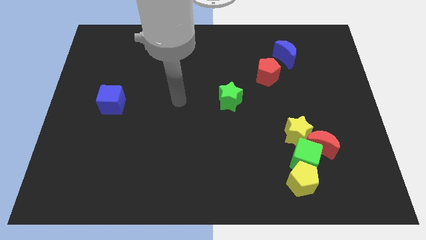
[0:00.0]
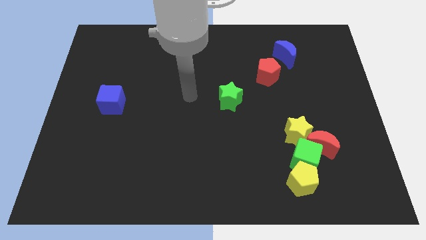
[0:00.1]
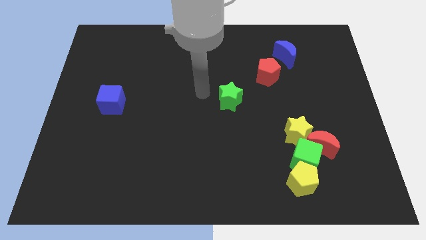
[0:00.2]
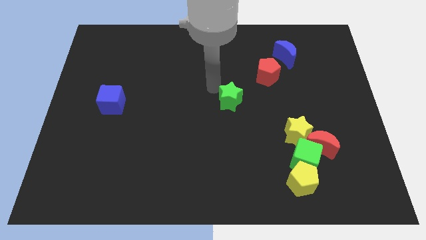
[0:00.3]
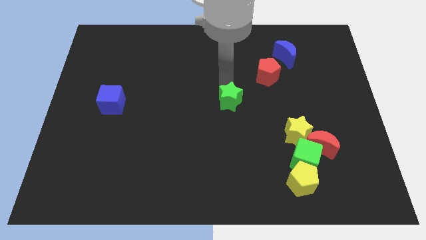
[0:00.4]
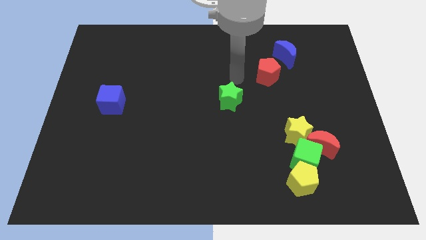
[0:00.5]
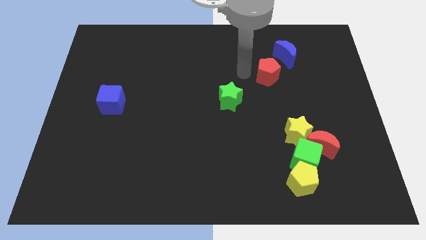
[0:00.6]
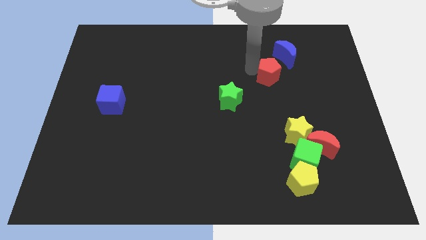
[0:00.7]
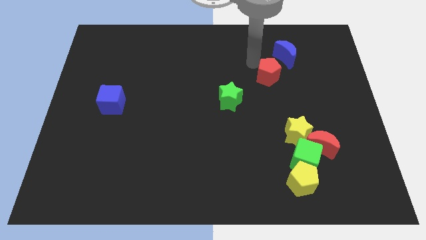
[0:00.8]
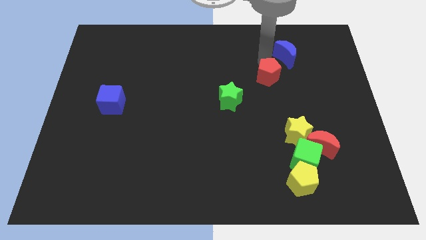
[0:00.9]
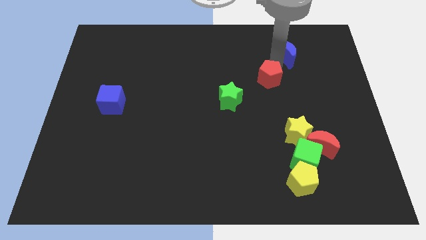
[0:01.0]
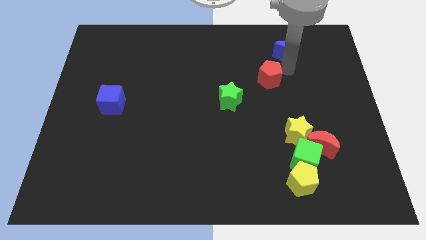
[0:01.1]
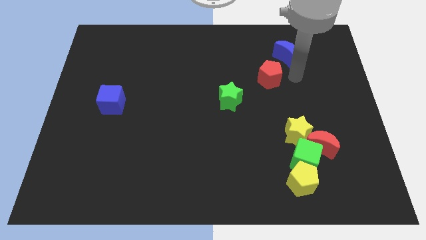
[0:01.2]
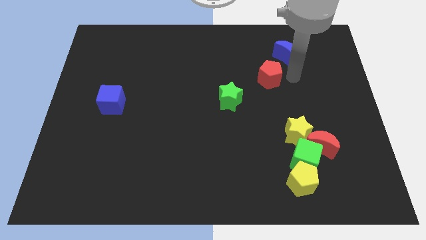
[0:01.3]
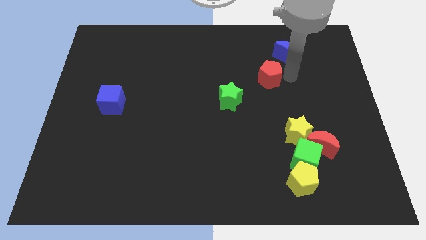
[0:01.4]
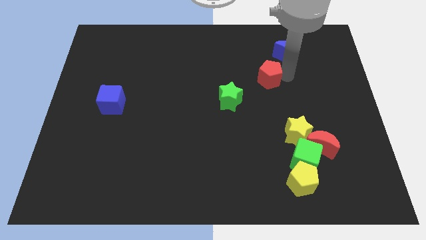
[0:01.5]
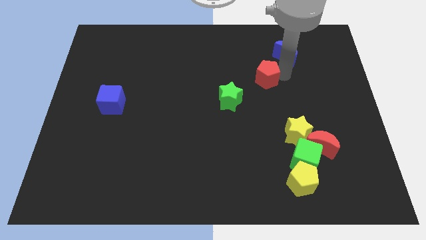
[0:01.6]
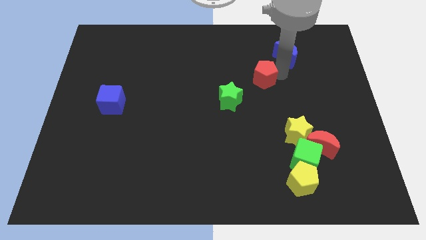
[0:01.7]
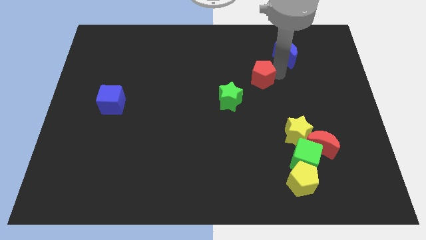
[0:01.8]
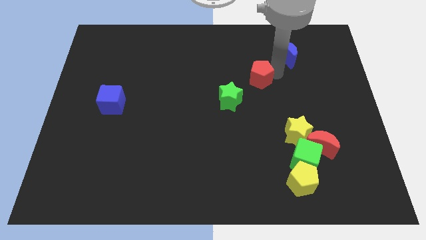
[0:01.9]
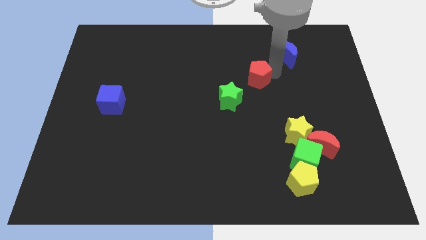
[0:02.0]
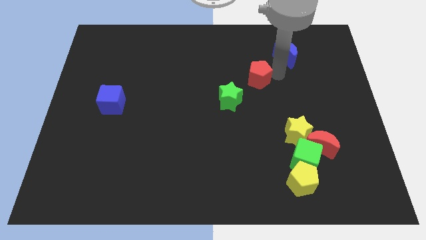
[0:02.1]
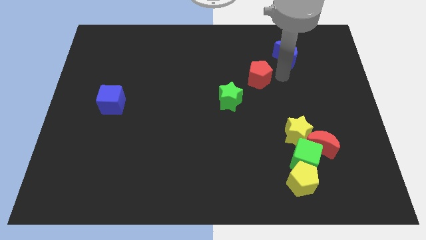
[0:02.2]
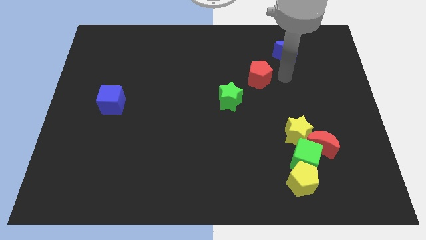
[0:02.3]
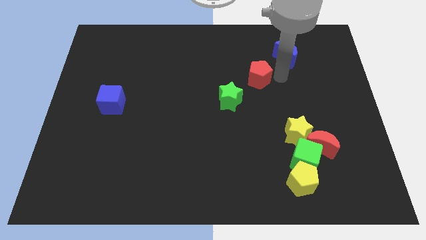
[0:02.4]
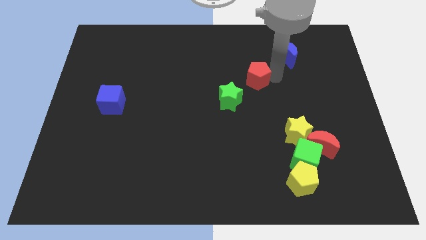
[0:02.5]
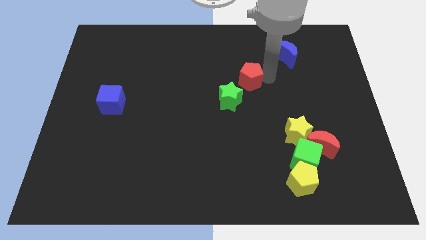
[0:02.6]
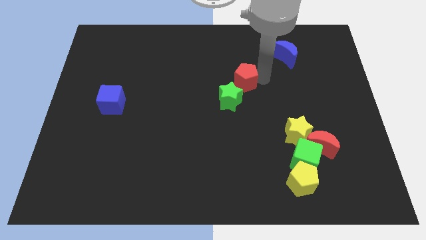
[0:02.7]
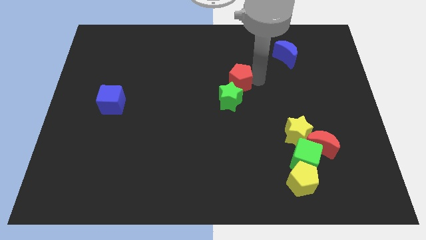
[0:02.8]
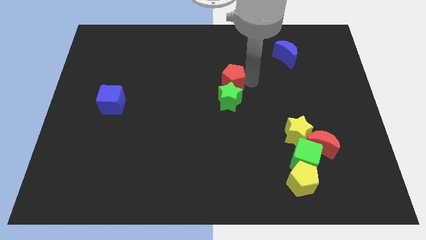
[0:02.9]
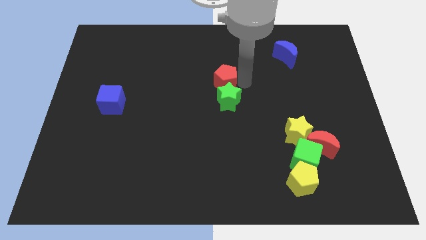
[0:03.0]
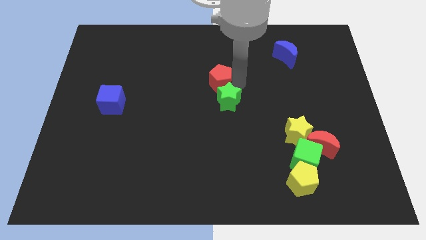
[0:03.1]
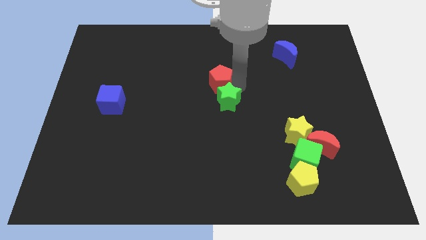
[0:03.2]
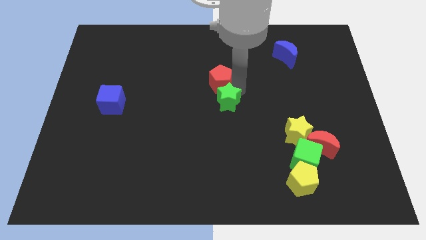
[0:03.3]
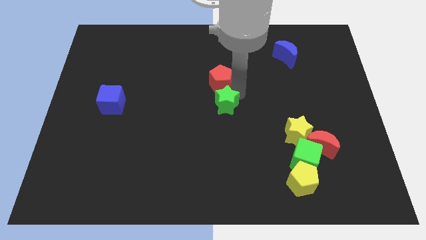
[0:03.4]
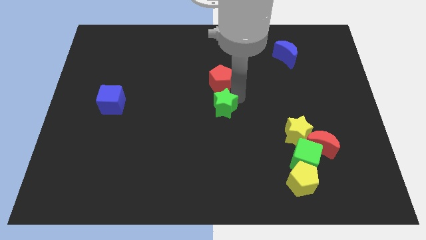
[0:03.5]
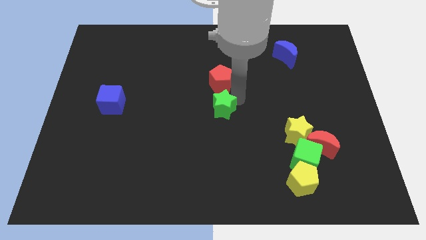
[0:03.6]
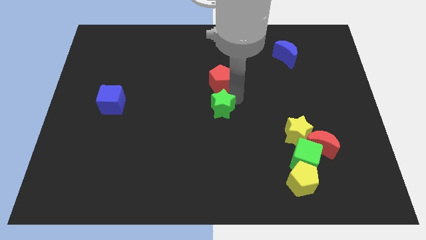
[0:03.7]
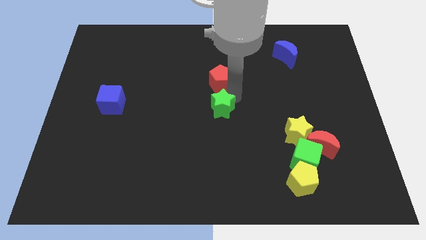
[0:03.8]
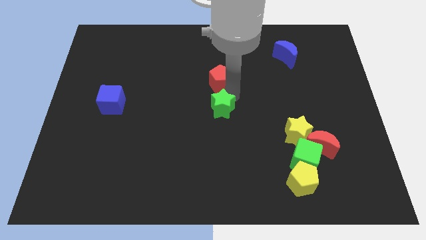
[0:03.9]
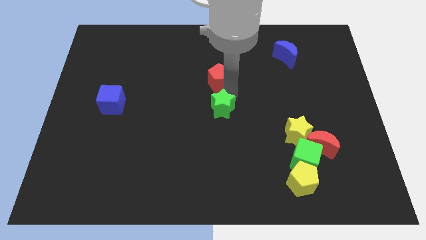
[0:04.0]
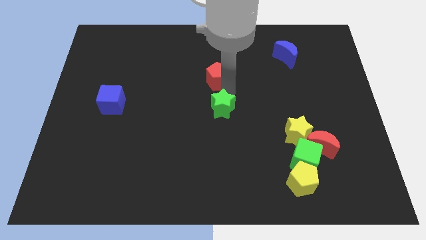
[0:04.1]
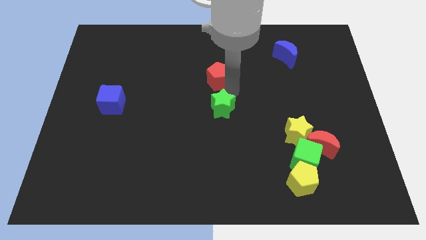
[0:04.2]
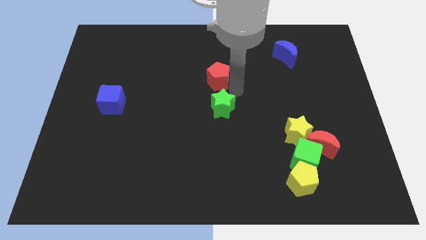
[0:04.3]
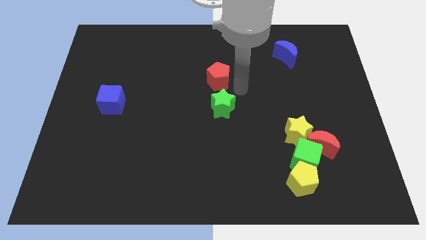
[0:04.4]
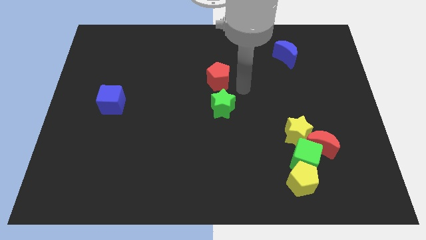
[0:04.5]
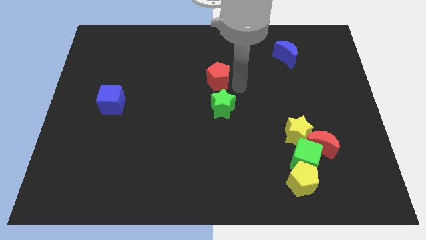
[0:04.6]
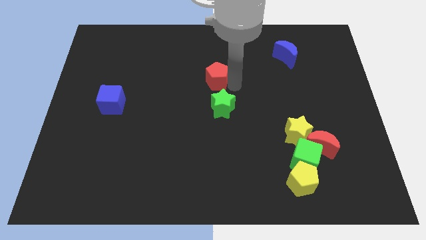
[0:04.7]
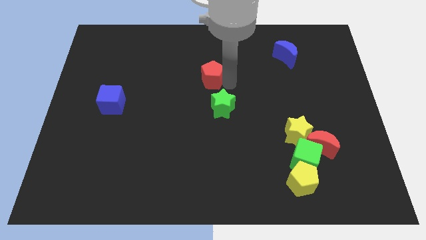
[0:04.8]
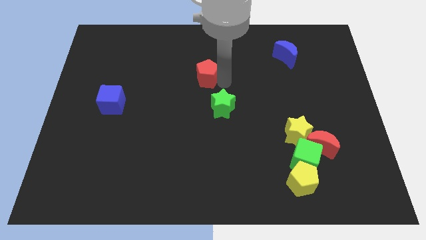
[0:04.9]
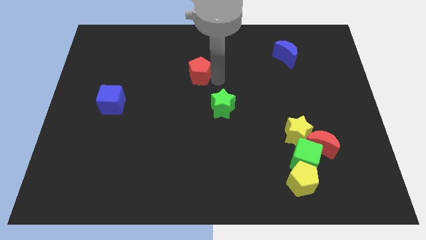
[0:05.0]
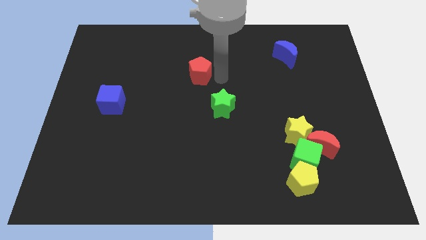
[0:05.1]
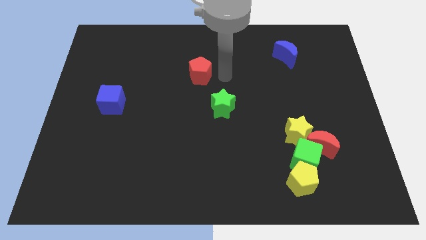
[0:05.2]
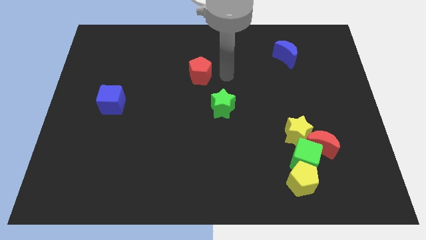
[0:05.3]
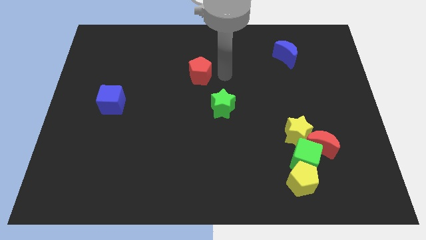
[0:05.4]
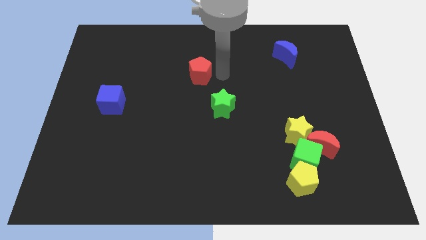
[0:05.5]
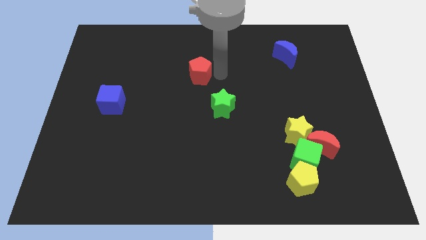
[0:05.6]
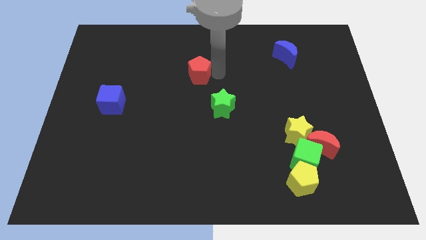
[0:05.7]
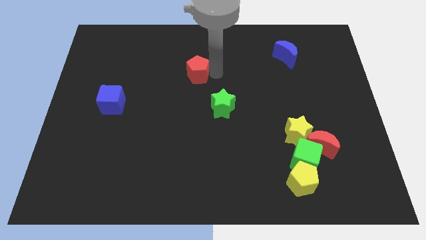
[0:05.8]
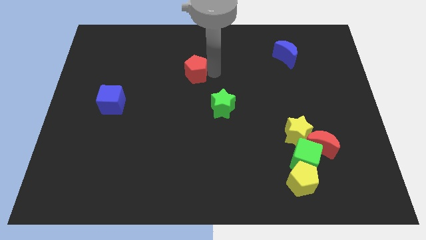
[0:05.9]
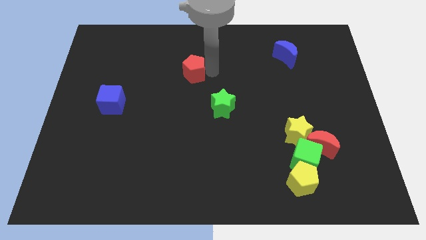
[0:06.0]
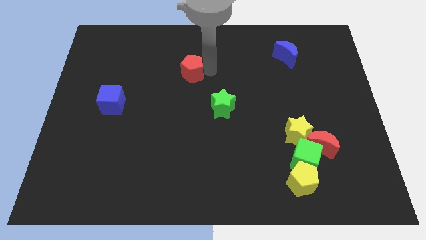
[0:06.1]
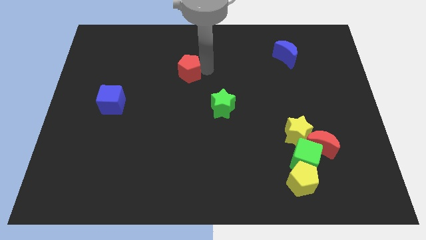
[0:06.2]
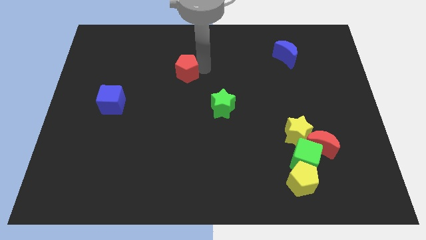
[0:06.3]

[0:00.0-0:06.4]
push the red pentagon left

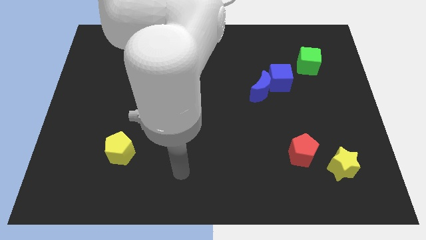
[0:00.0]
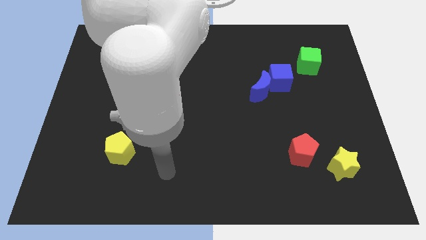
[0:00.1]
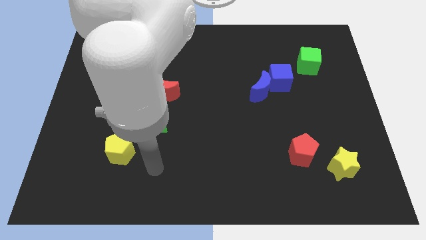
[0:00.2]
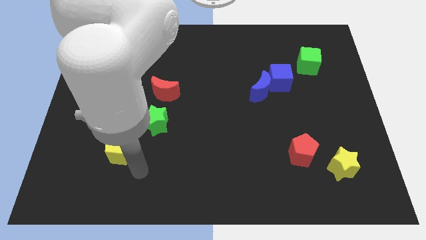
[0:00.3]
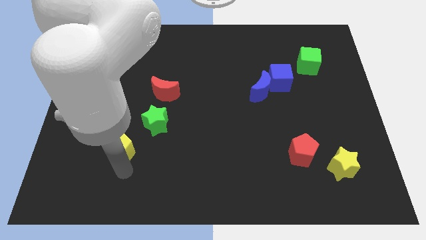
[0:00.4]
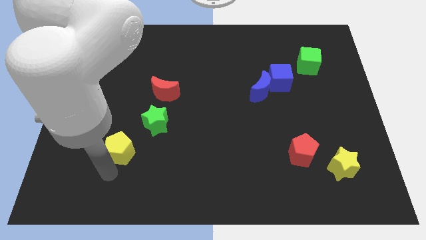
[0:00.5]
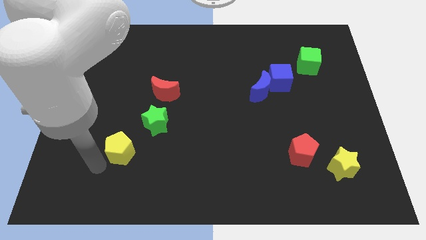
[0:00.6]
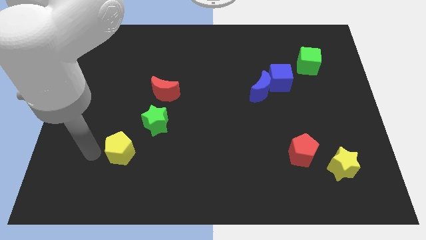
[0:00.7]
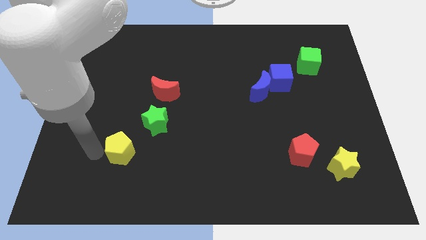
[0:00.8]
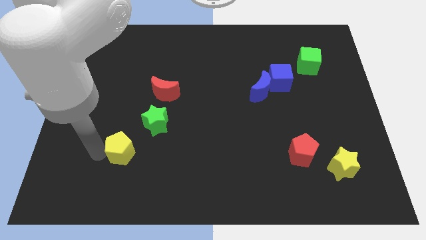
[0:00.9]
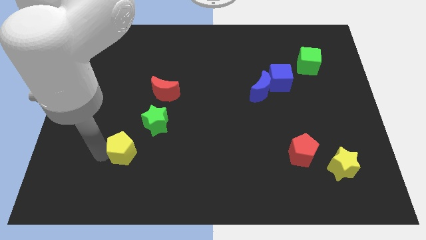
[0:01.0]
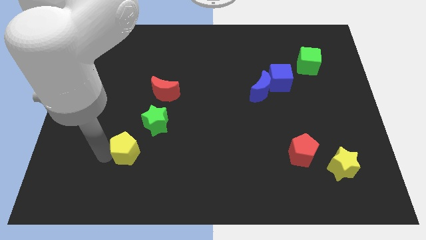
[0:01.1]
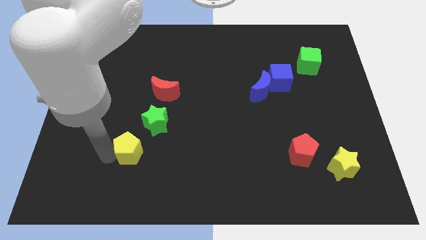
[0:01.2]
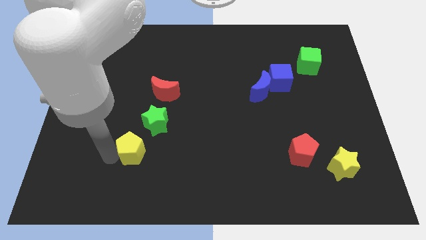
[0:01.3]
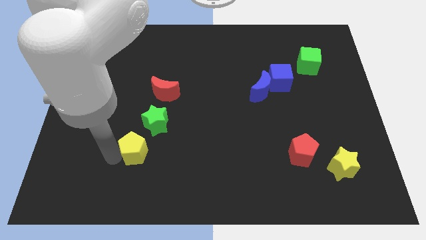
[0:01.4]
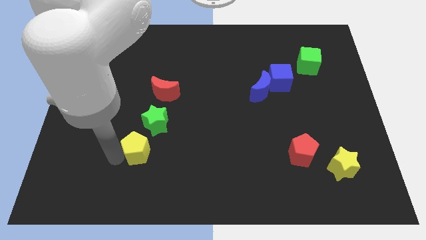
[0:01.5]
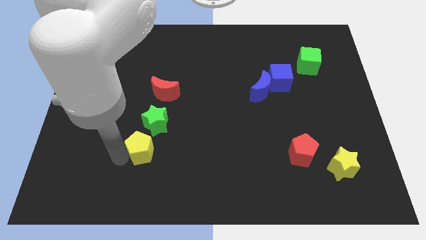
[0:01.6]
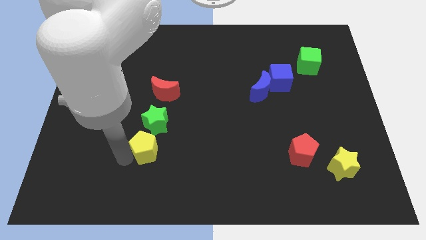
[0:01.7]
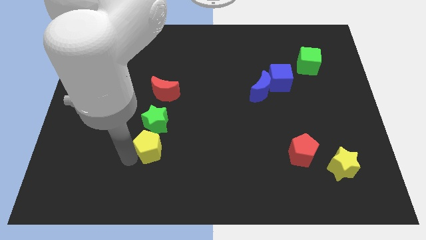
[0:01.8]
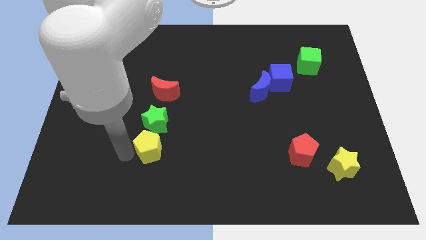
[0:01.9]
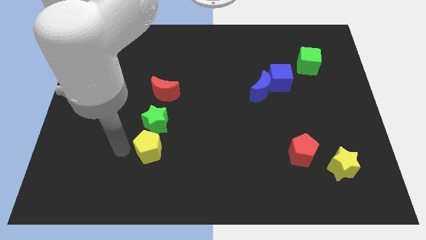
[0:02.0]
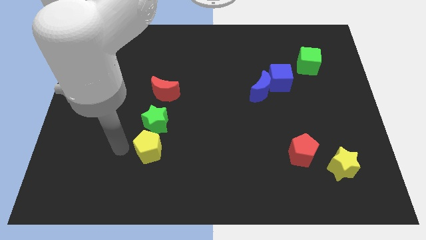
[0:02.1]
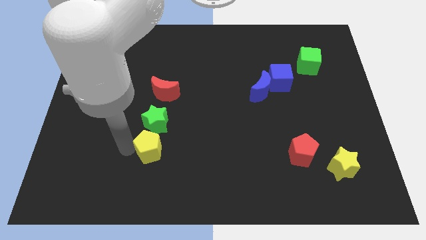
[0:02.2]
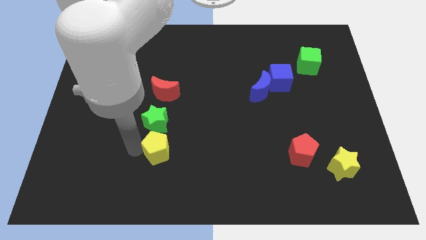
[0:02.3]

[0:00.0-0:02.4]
push the yellow pentagon right a little
